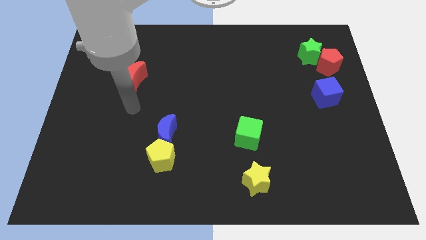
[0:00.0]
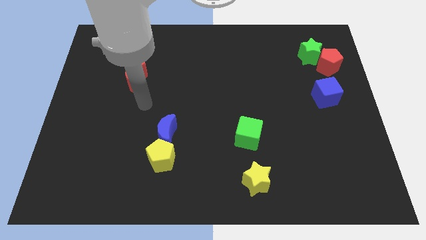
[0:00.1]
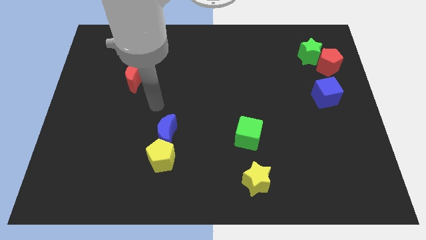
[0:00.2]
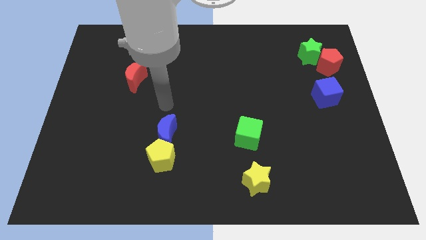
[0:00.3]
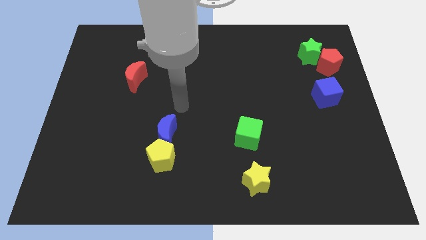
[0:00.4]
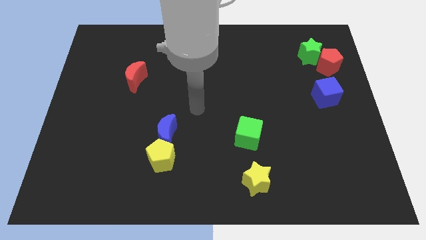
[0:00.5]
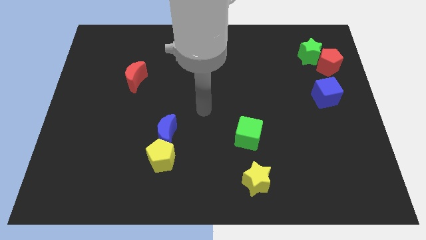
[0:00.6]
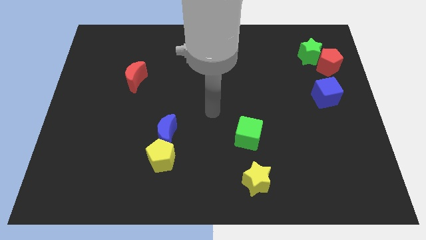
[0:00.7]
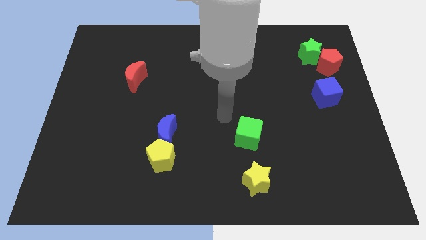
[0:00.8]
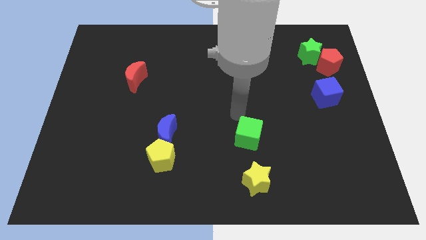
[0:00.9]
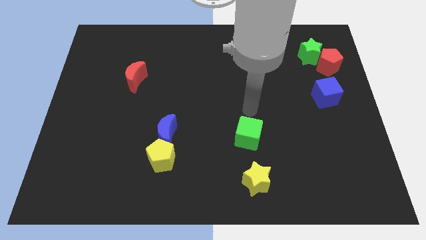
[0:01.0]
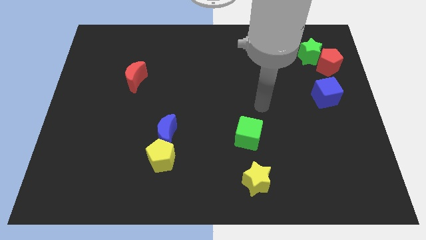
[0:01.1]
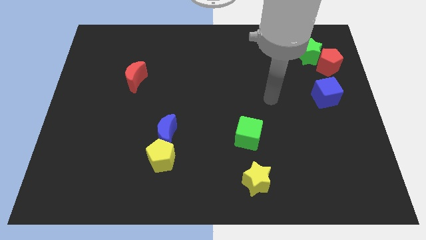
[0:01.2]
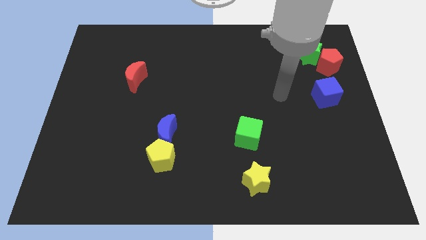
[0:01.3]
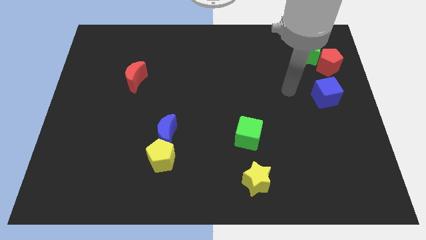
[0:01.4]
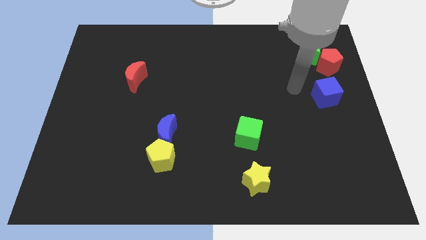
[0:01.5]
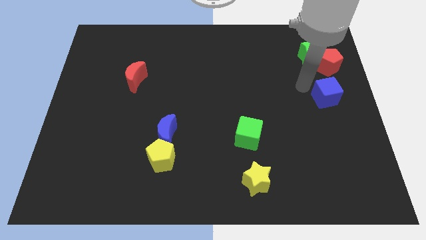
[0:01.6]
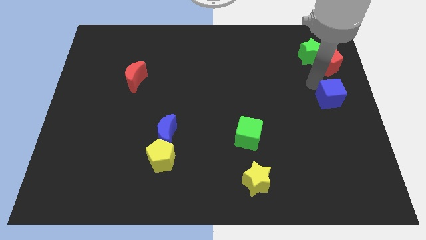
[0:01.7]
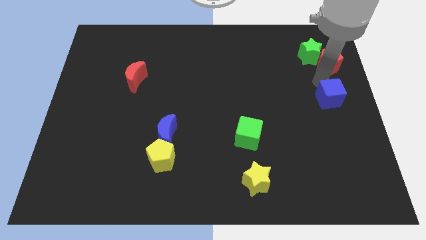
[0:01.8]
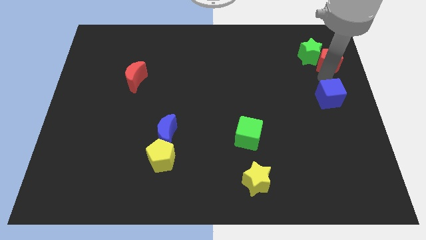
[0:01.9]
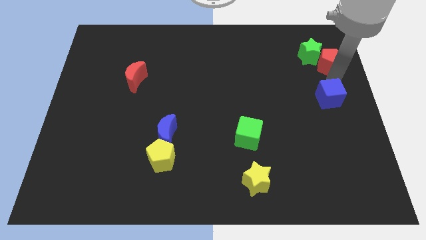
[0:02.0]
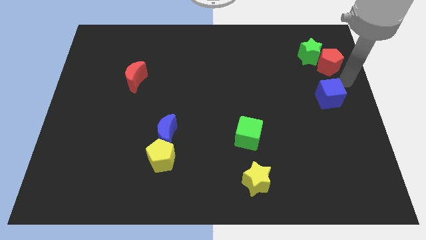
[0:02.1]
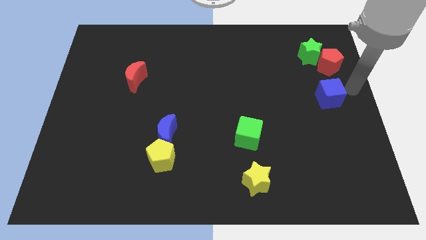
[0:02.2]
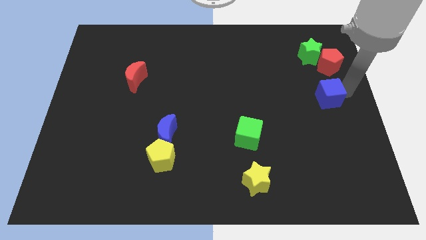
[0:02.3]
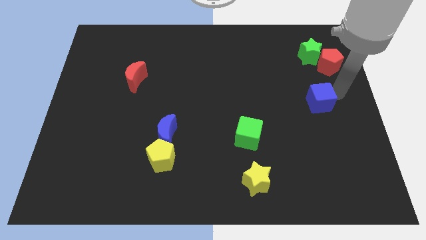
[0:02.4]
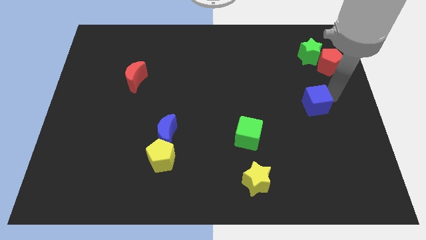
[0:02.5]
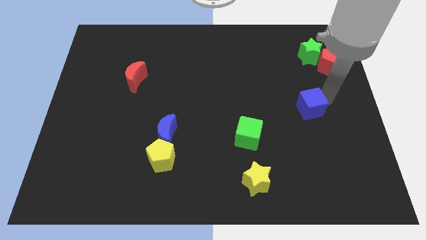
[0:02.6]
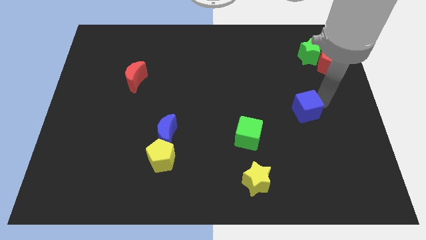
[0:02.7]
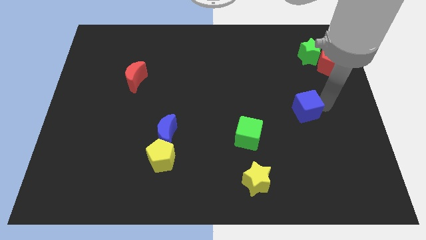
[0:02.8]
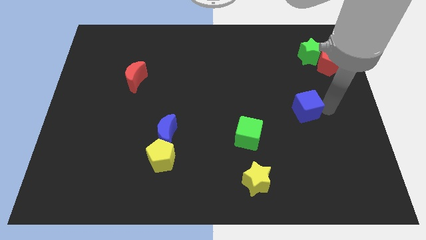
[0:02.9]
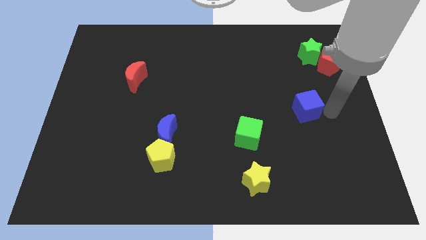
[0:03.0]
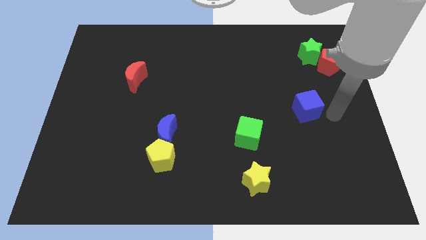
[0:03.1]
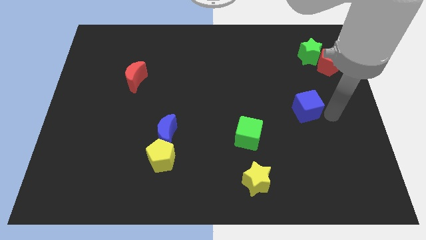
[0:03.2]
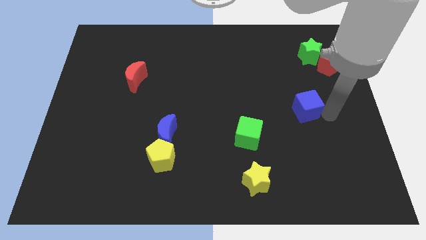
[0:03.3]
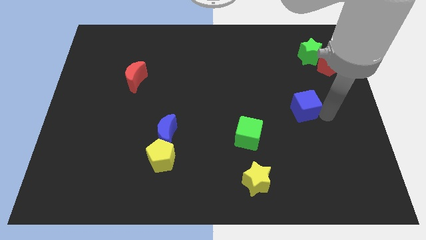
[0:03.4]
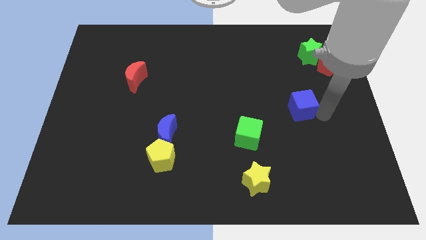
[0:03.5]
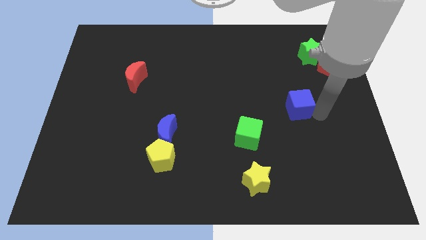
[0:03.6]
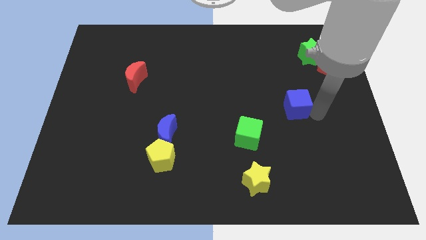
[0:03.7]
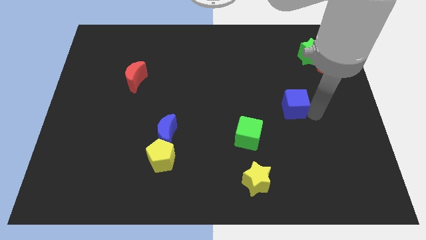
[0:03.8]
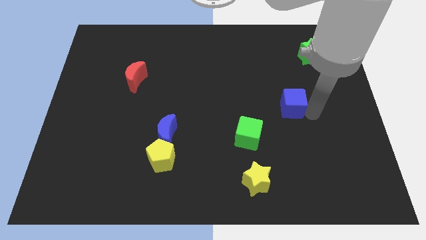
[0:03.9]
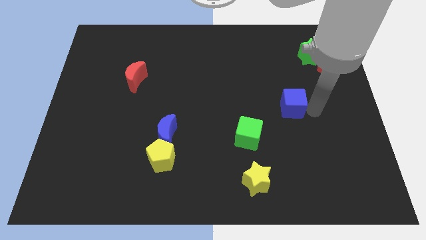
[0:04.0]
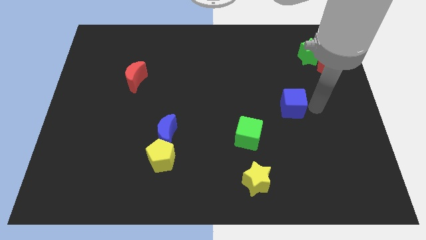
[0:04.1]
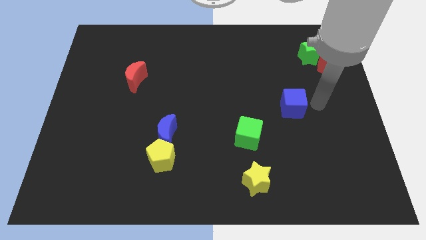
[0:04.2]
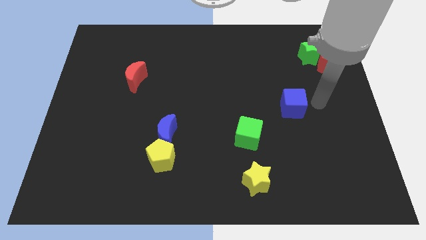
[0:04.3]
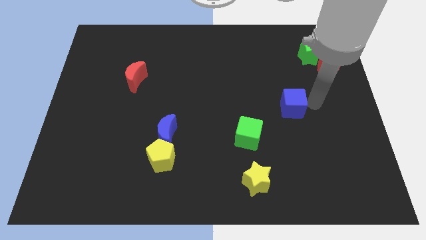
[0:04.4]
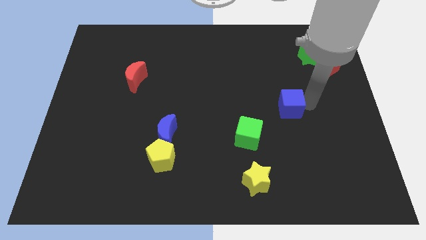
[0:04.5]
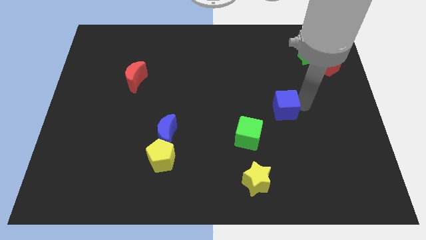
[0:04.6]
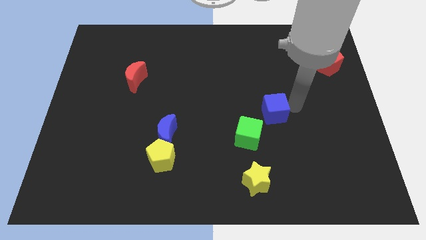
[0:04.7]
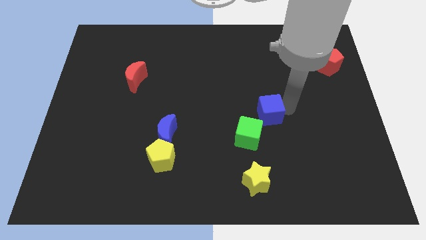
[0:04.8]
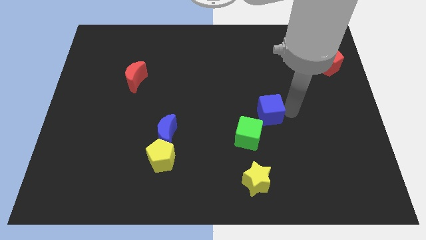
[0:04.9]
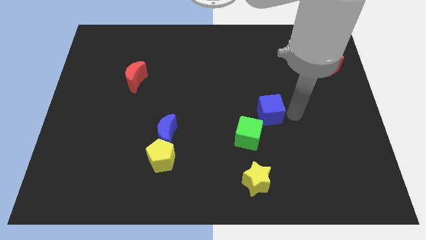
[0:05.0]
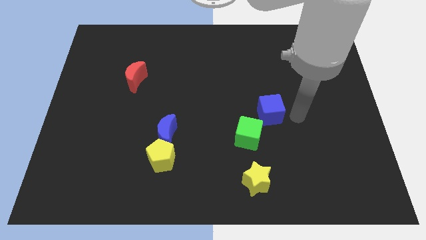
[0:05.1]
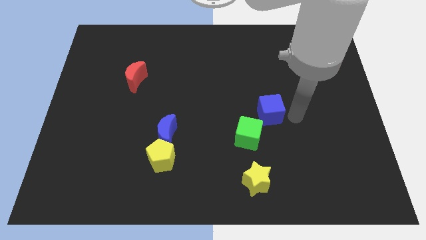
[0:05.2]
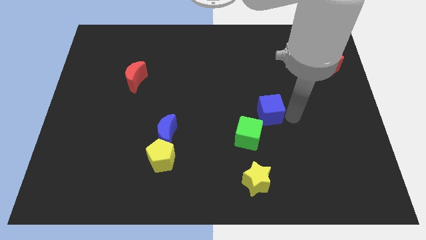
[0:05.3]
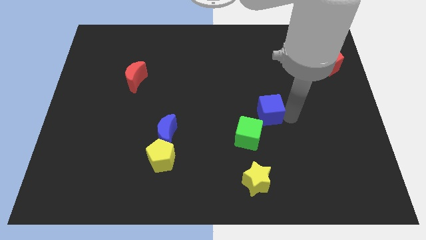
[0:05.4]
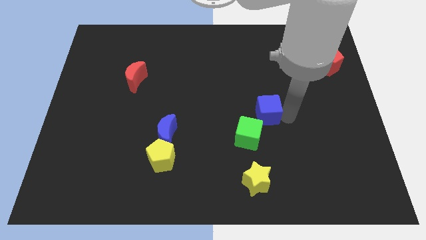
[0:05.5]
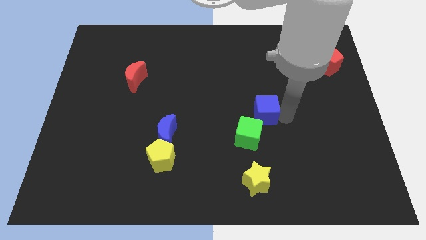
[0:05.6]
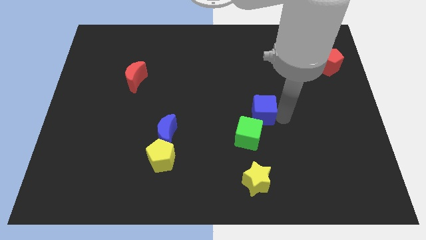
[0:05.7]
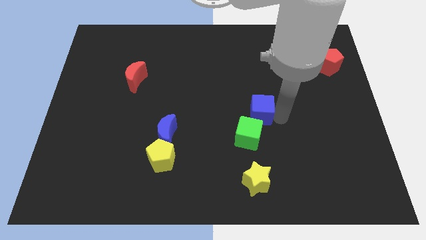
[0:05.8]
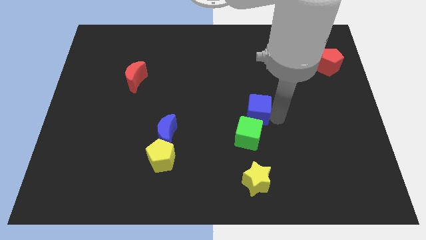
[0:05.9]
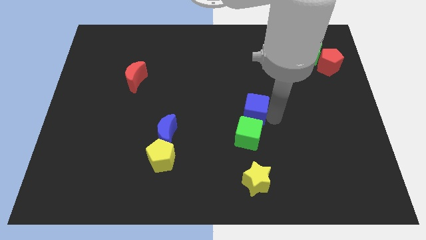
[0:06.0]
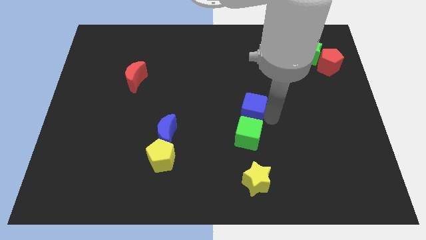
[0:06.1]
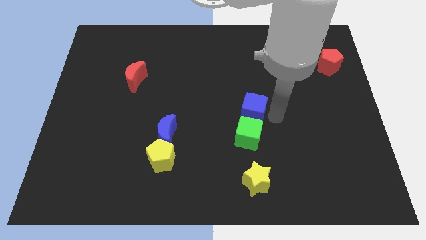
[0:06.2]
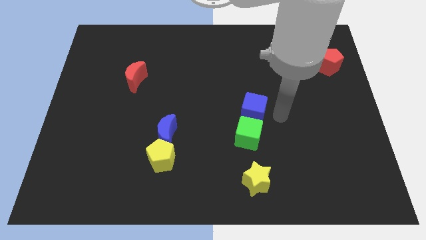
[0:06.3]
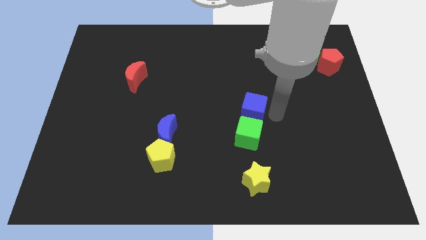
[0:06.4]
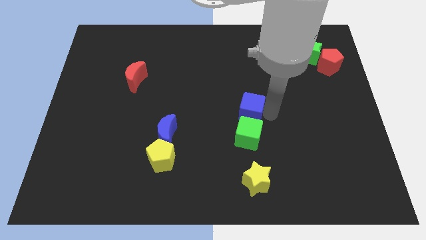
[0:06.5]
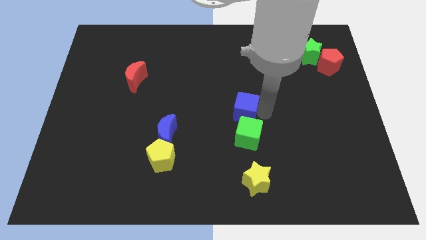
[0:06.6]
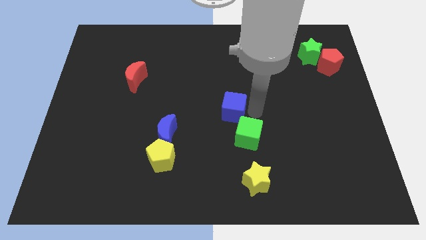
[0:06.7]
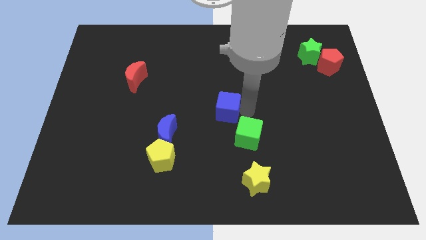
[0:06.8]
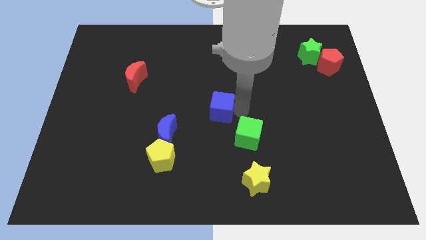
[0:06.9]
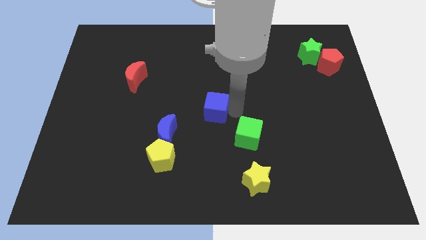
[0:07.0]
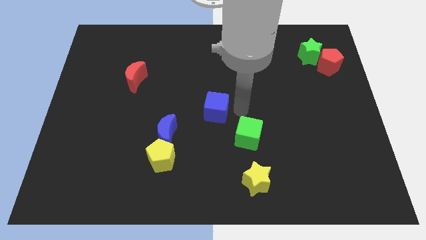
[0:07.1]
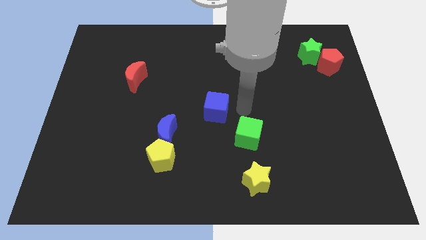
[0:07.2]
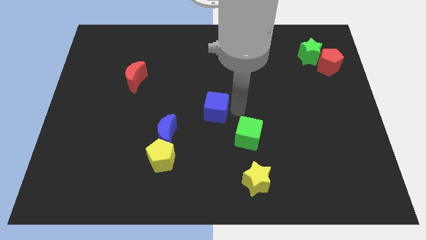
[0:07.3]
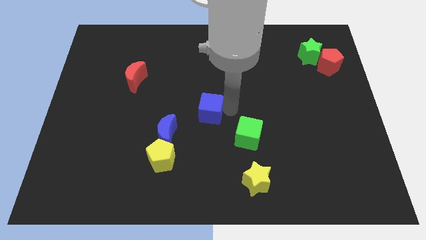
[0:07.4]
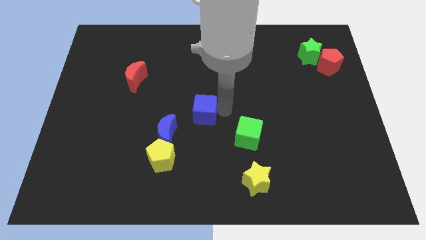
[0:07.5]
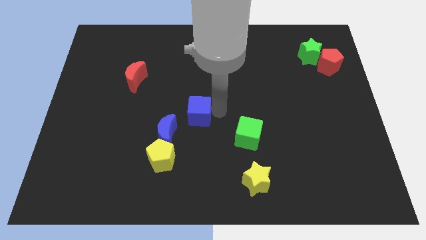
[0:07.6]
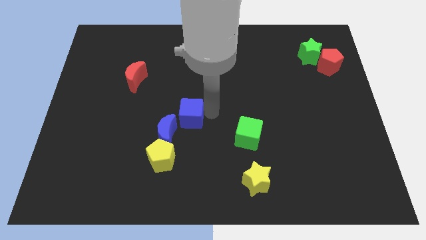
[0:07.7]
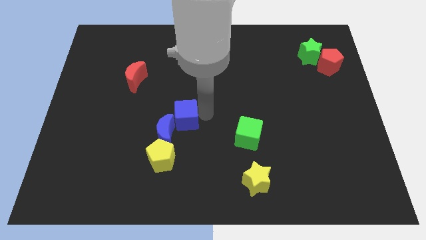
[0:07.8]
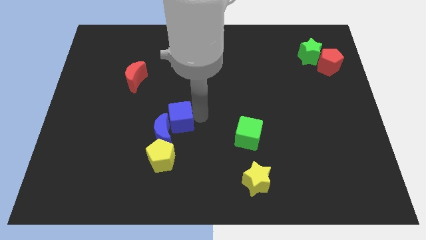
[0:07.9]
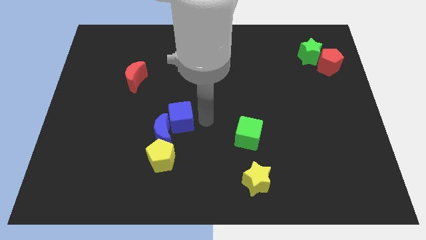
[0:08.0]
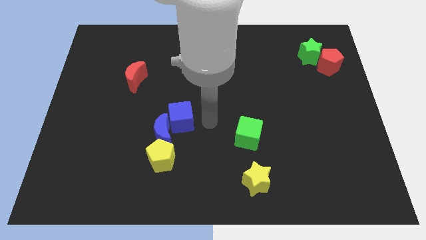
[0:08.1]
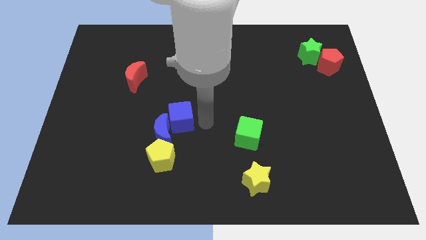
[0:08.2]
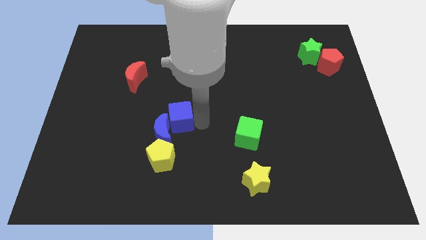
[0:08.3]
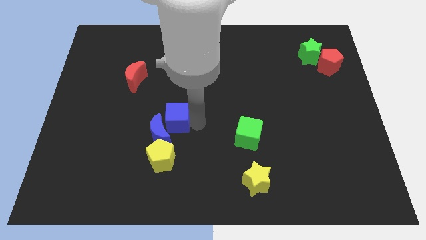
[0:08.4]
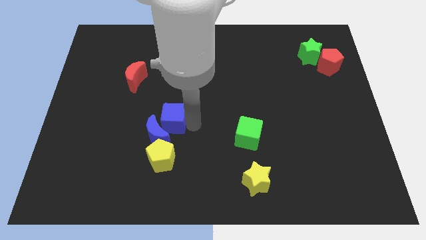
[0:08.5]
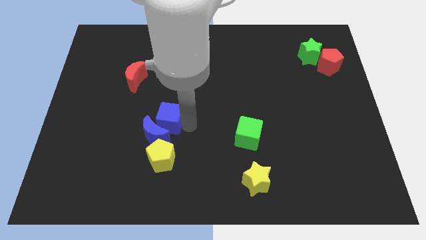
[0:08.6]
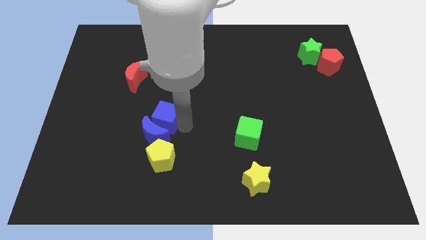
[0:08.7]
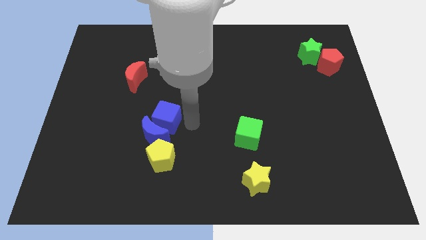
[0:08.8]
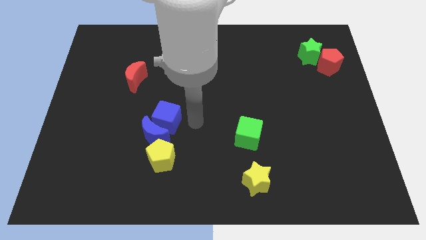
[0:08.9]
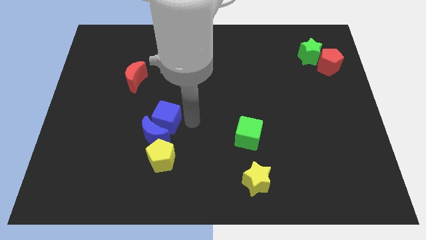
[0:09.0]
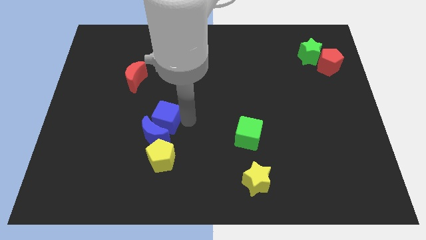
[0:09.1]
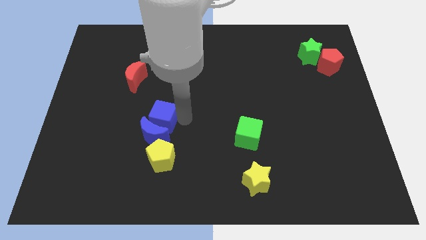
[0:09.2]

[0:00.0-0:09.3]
push the blue cube diagonally up and to the left of the blue moon
